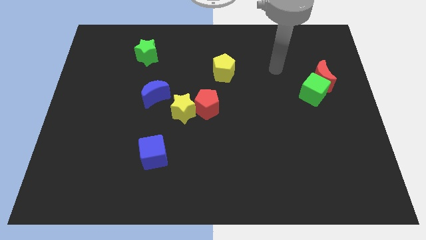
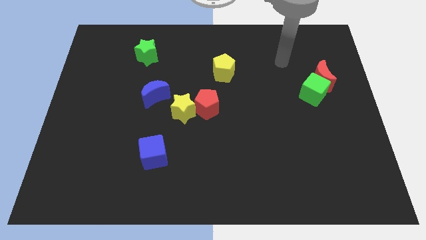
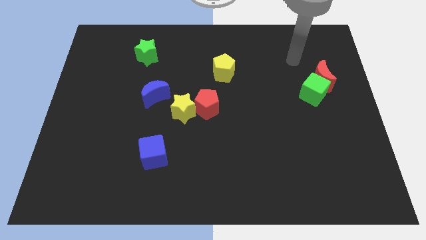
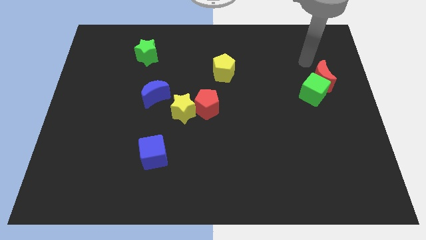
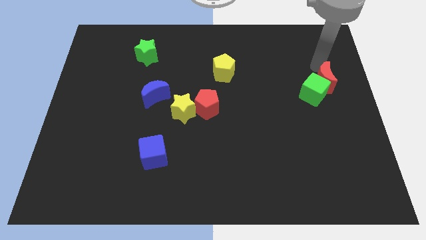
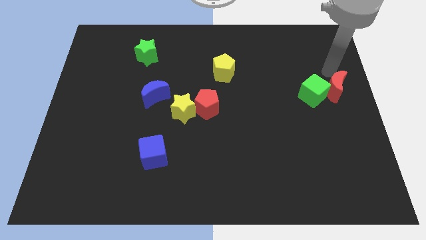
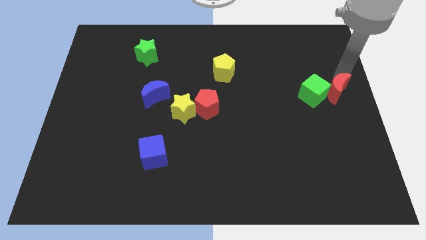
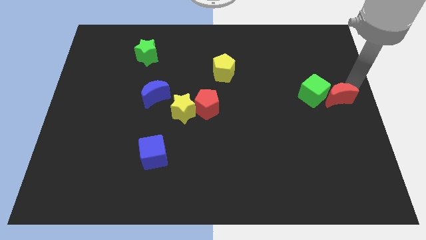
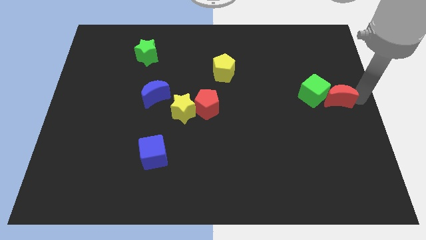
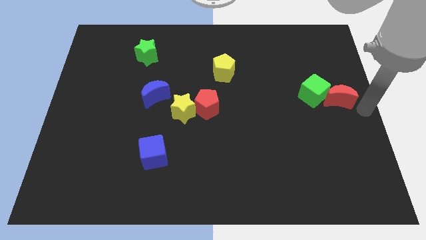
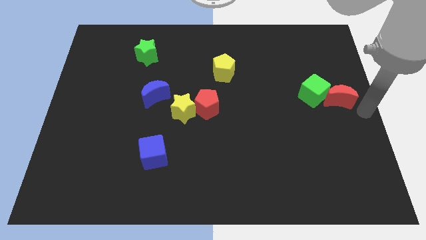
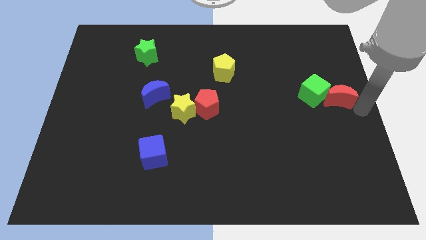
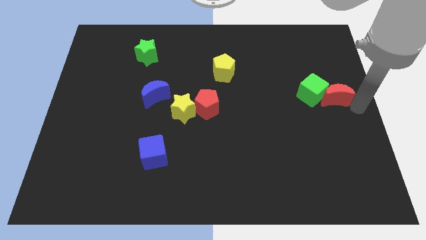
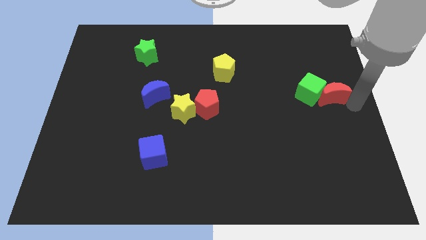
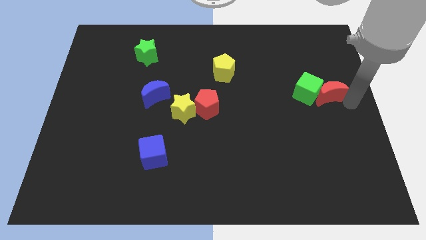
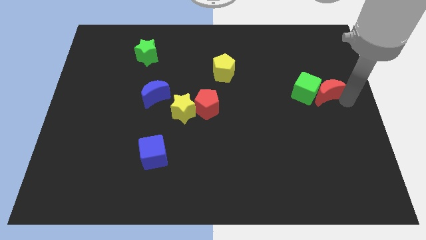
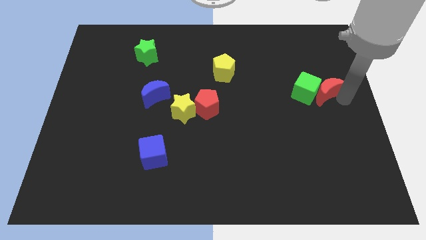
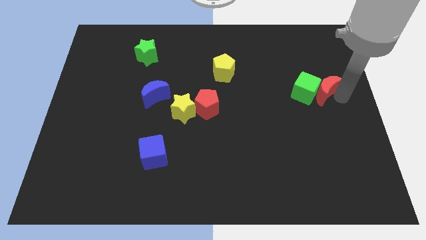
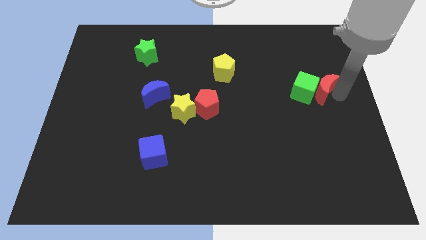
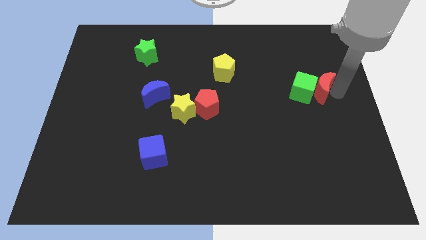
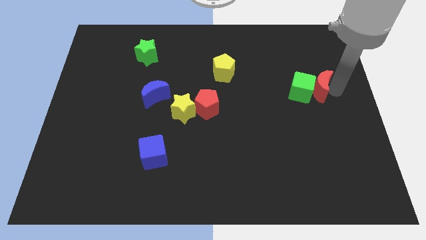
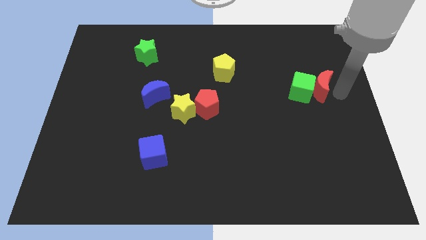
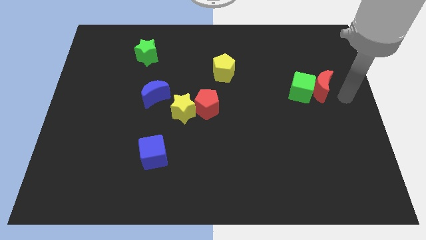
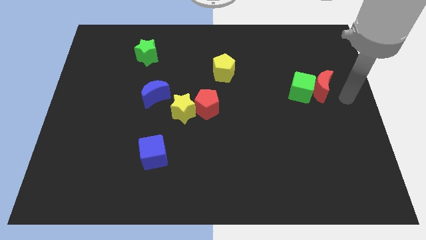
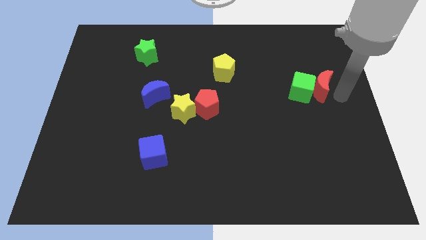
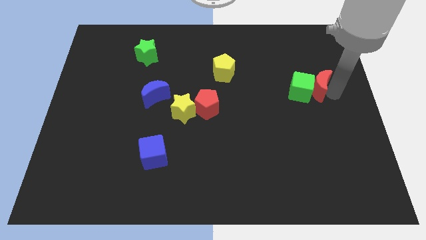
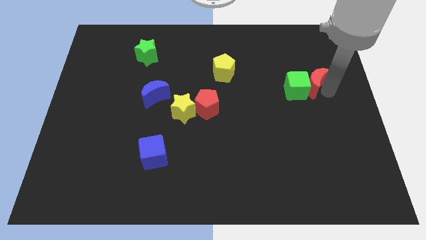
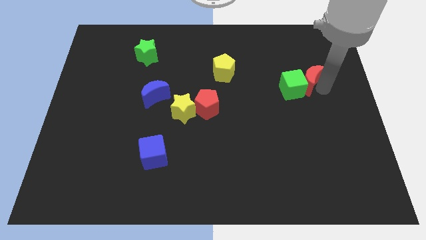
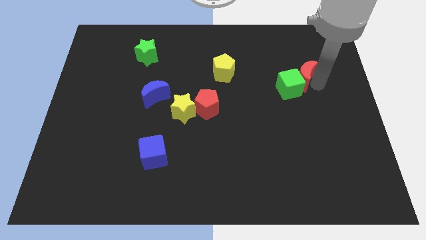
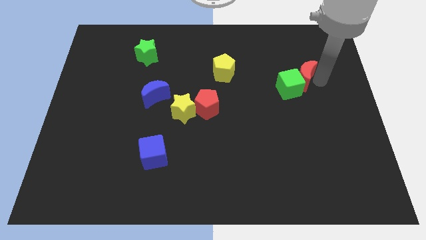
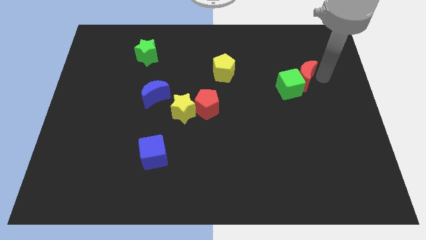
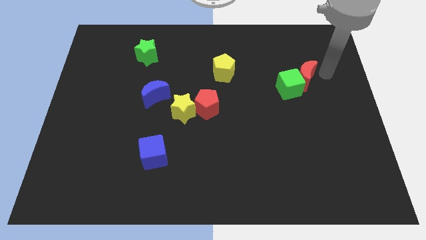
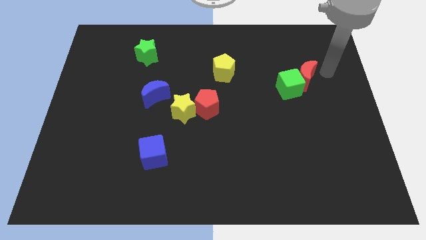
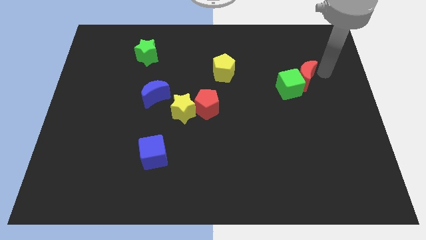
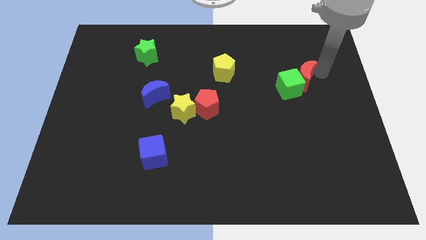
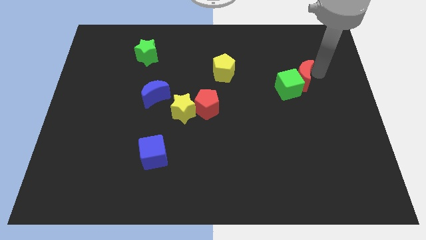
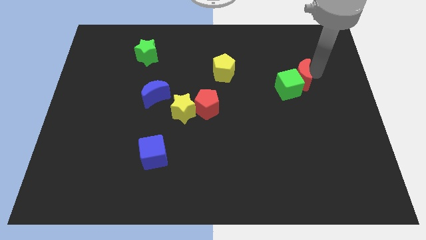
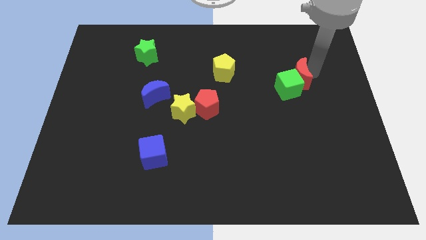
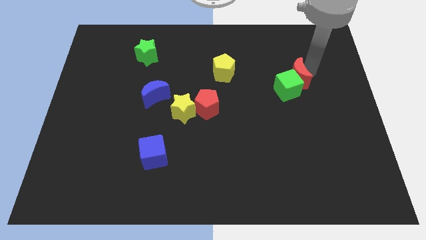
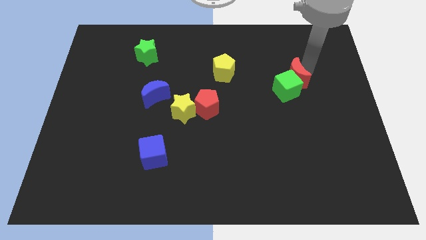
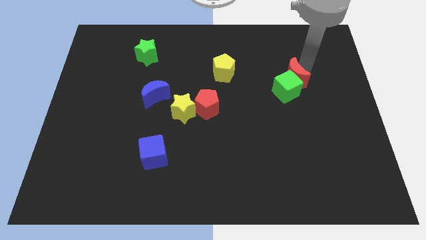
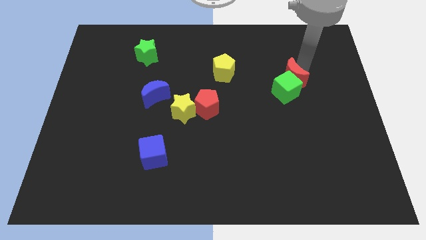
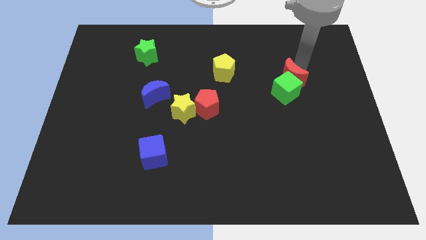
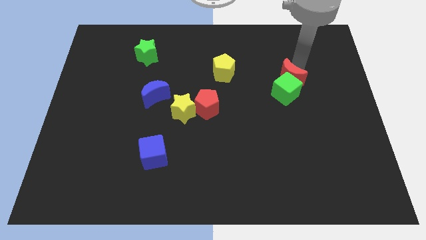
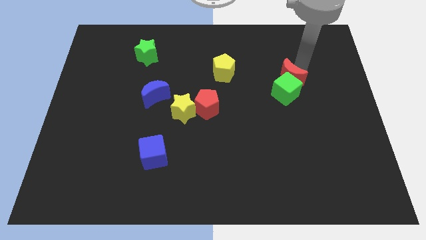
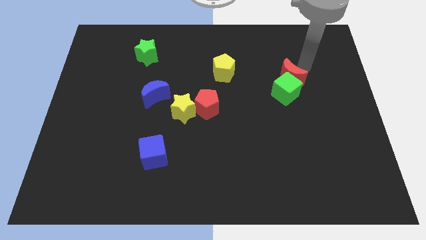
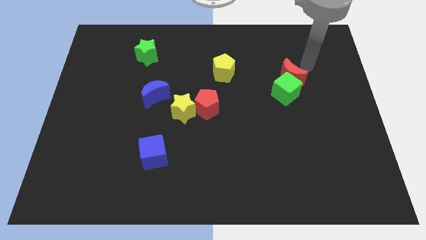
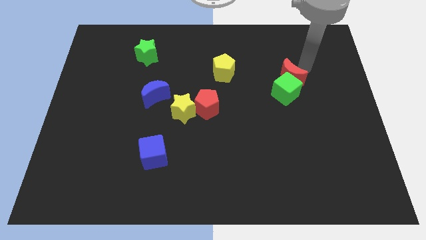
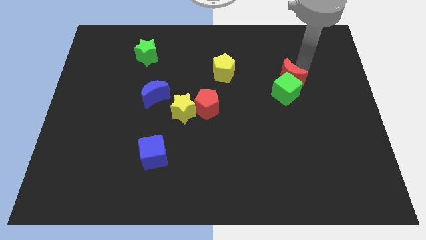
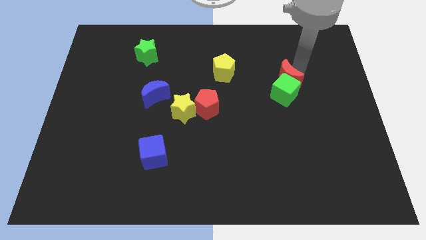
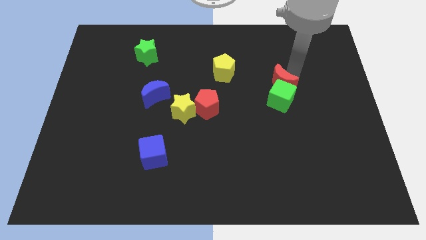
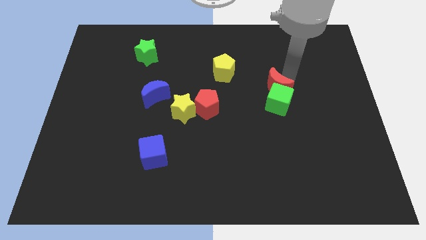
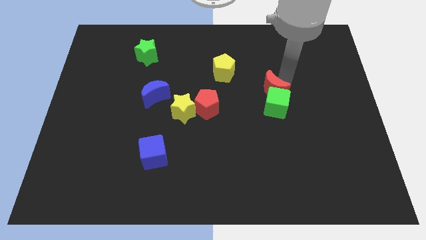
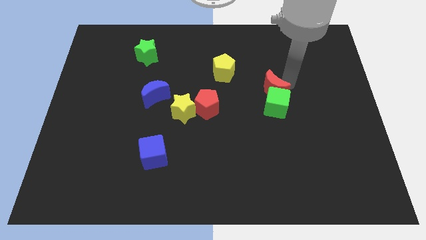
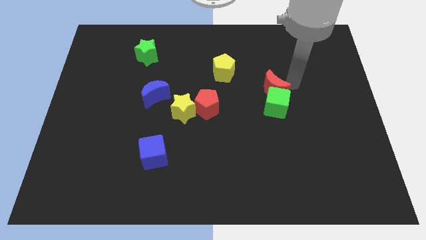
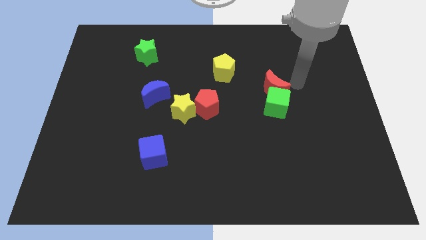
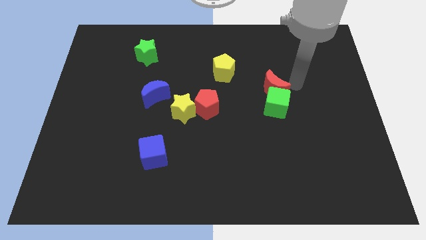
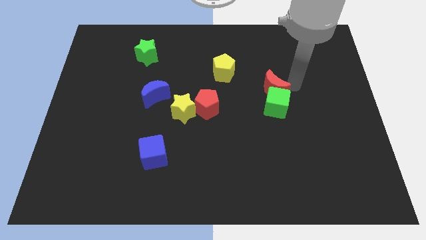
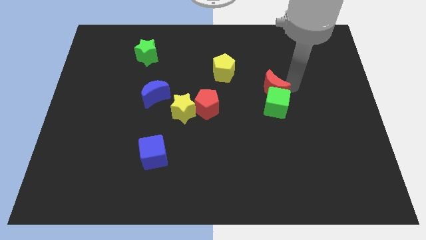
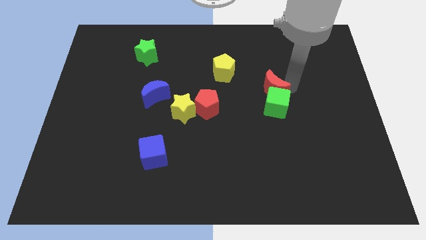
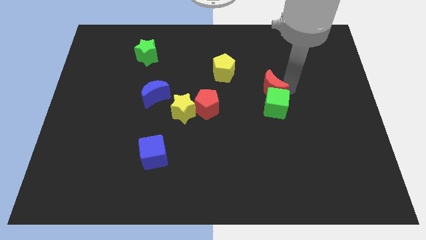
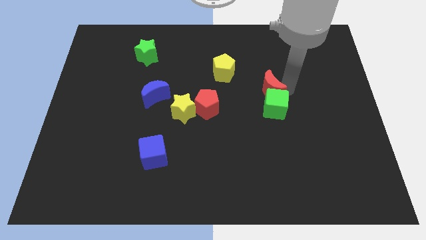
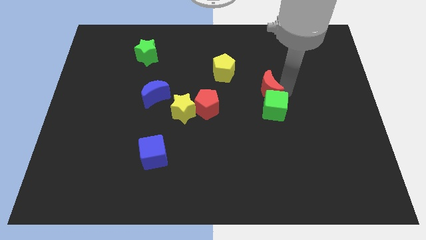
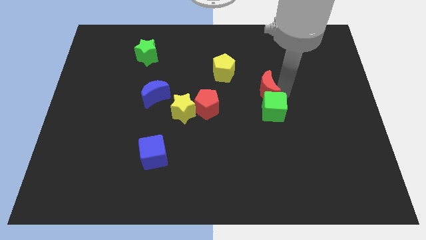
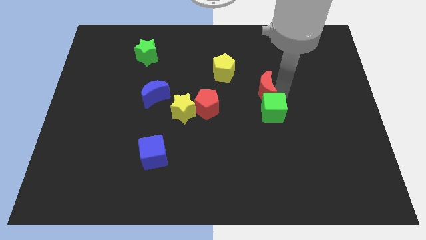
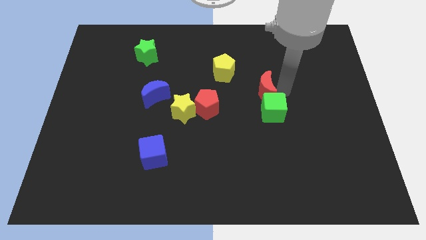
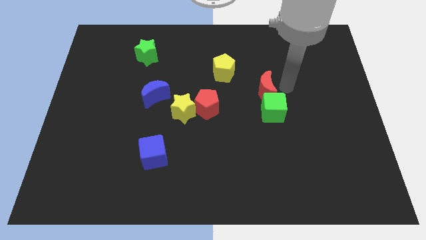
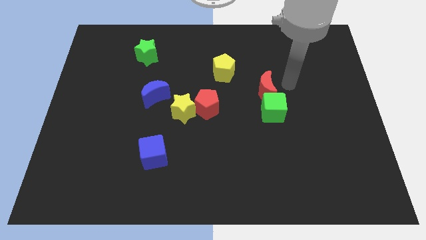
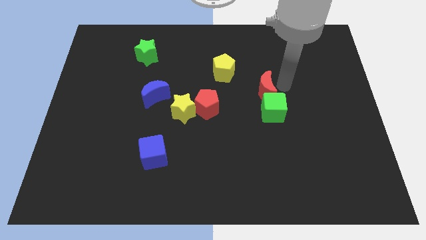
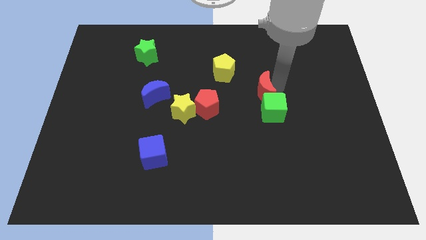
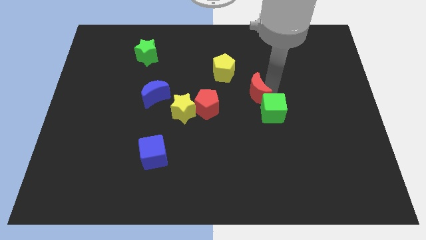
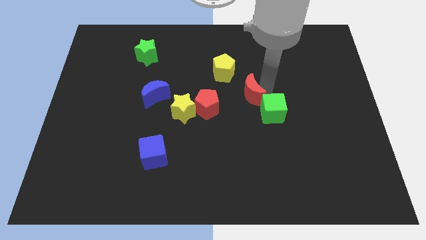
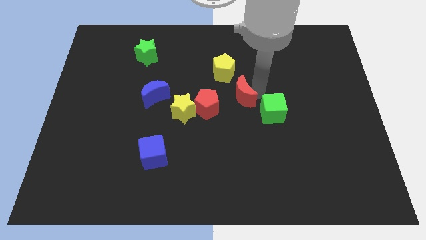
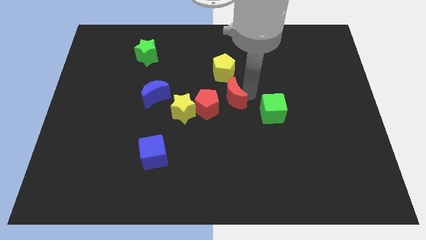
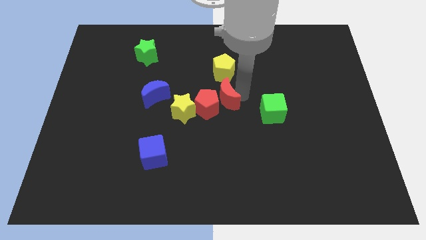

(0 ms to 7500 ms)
move the red moon close to the red pentagon
